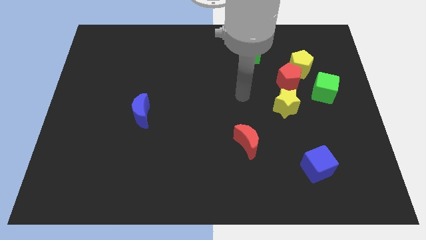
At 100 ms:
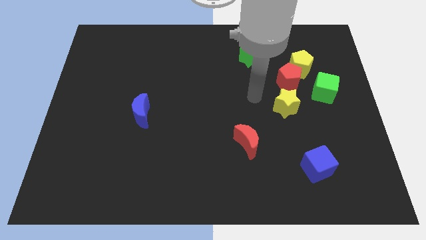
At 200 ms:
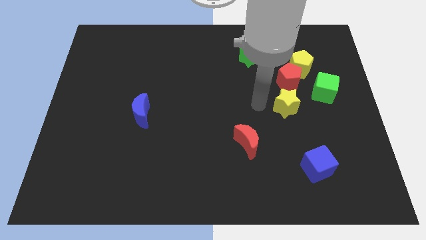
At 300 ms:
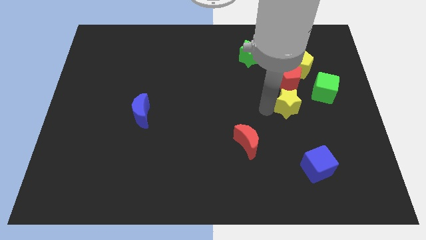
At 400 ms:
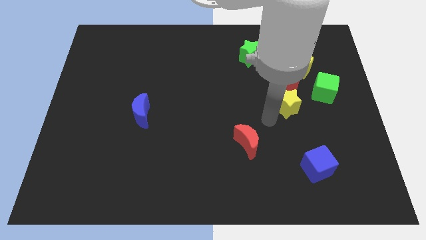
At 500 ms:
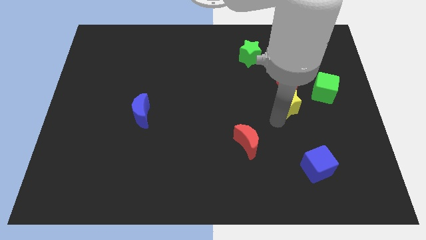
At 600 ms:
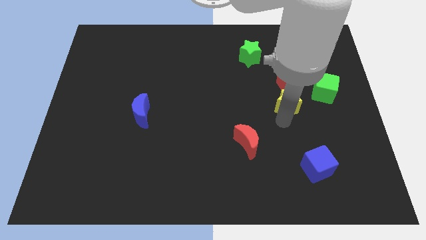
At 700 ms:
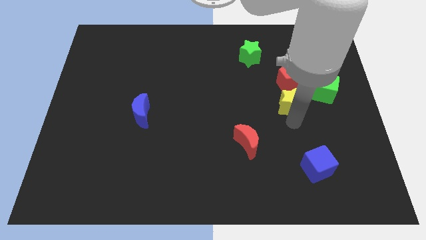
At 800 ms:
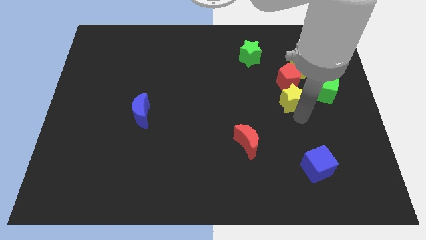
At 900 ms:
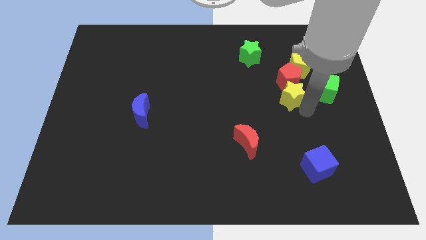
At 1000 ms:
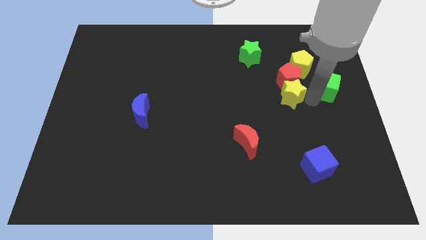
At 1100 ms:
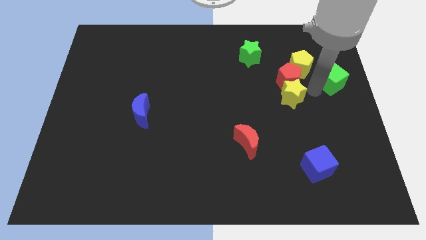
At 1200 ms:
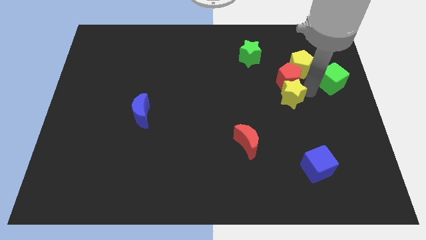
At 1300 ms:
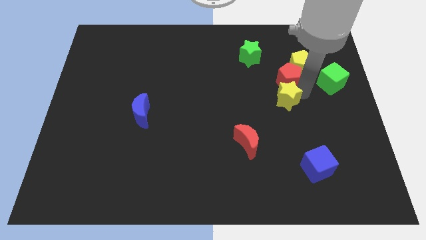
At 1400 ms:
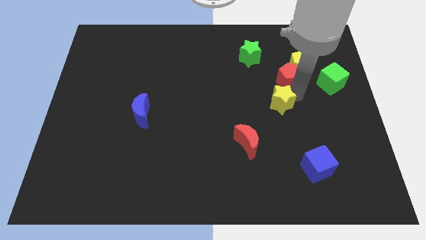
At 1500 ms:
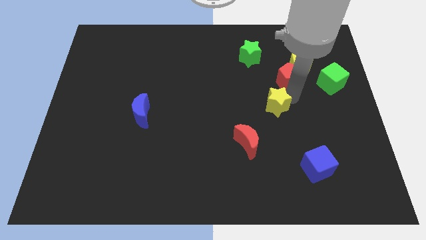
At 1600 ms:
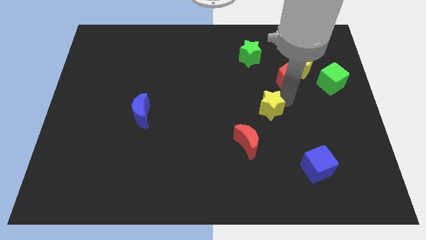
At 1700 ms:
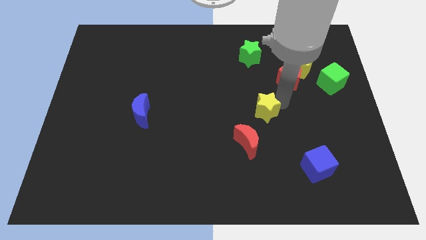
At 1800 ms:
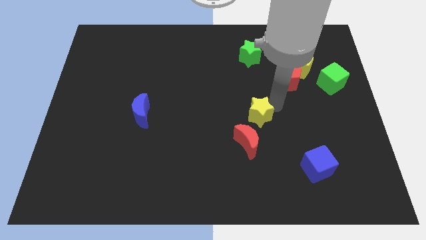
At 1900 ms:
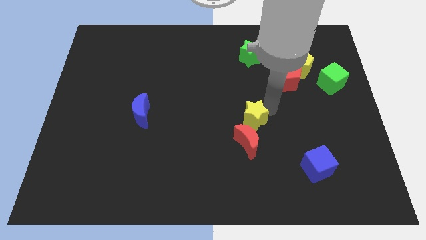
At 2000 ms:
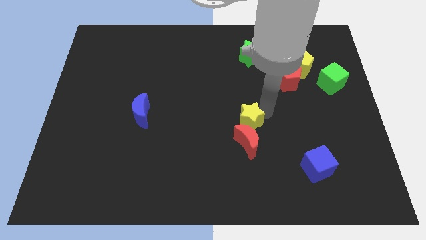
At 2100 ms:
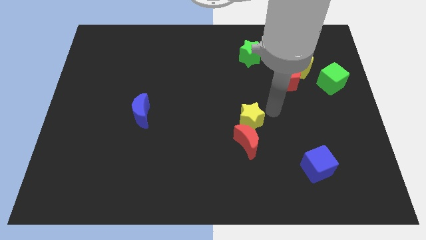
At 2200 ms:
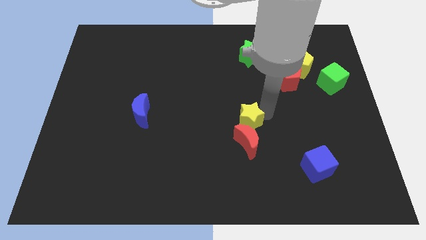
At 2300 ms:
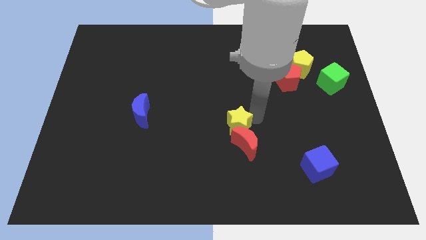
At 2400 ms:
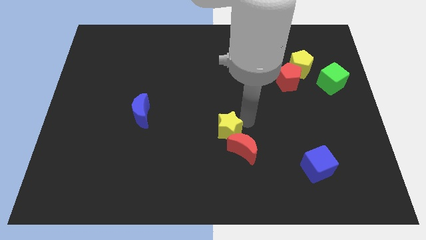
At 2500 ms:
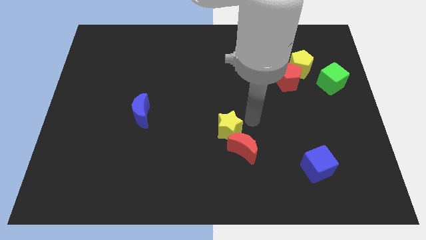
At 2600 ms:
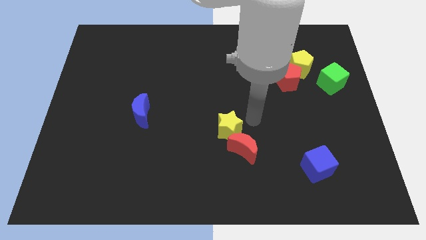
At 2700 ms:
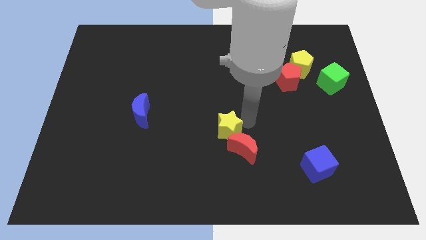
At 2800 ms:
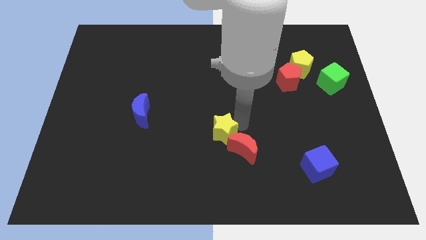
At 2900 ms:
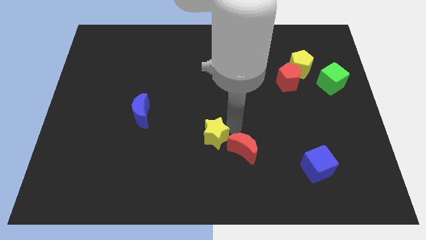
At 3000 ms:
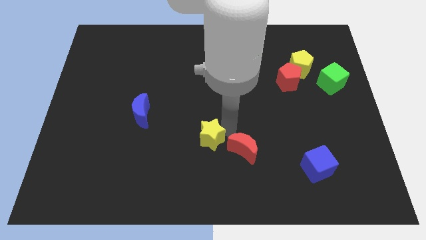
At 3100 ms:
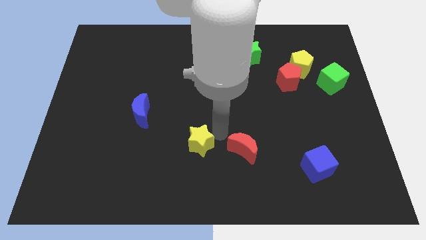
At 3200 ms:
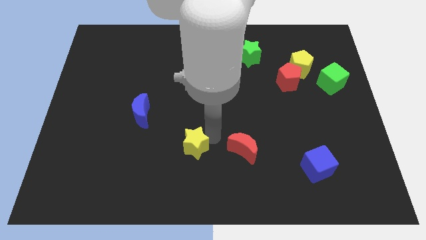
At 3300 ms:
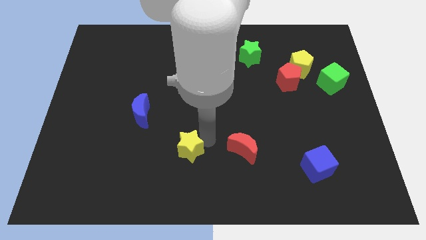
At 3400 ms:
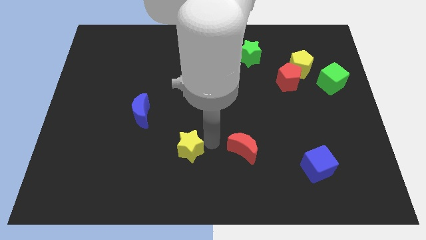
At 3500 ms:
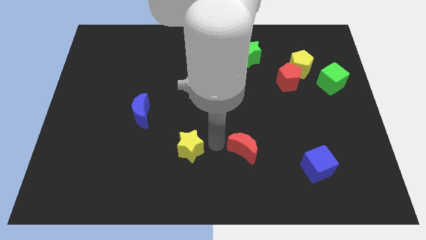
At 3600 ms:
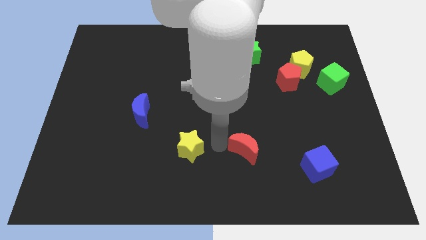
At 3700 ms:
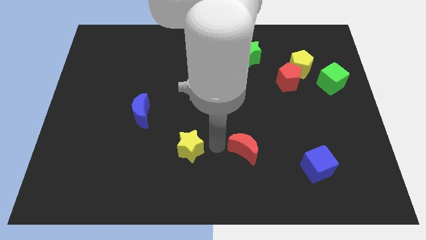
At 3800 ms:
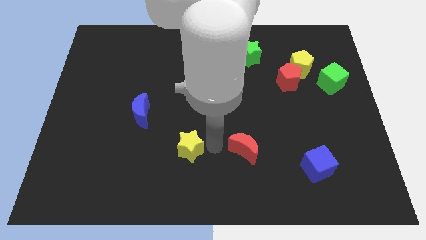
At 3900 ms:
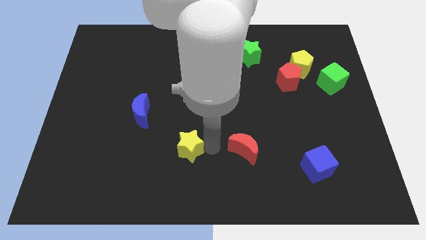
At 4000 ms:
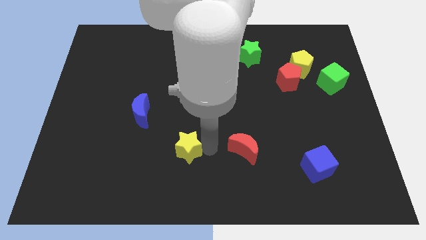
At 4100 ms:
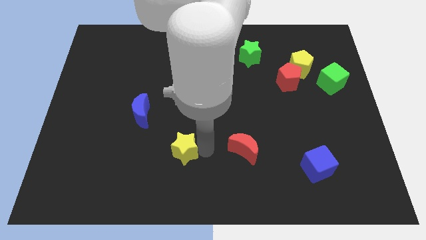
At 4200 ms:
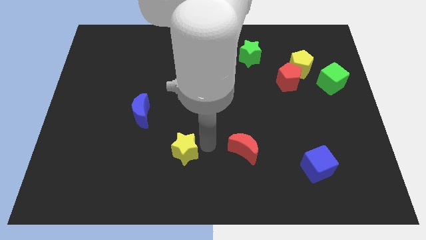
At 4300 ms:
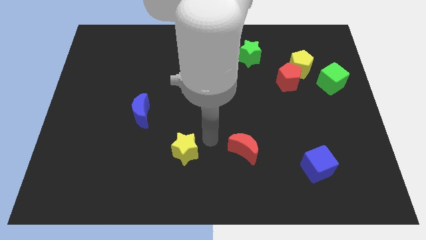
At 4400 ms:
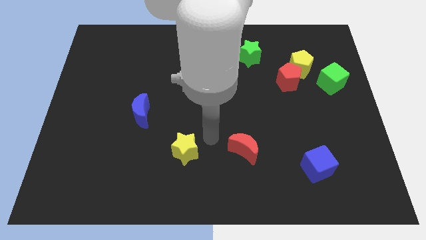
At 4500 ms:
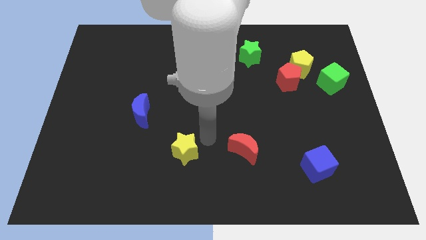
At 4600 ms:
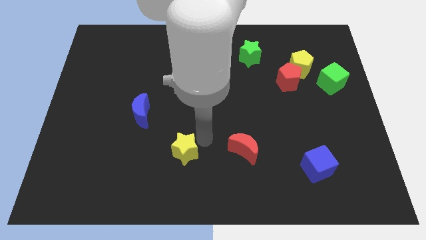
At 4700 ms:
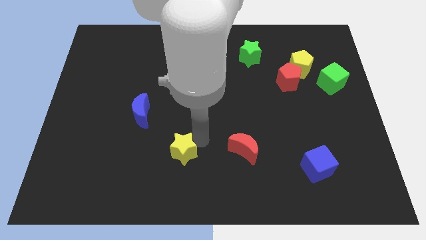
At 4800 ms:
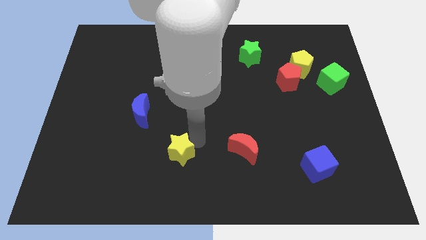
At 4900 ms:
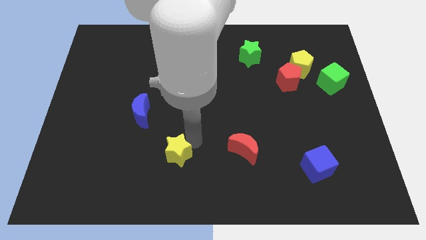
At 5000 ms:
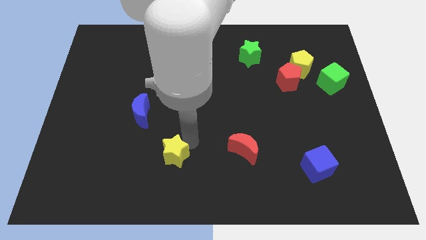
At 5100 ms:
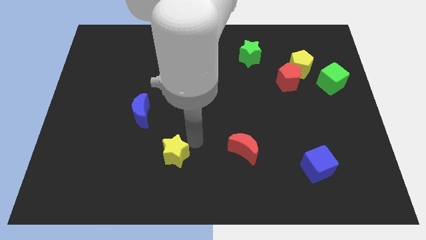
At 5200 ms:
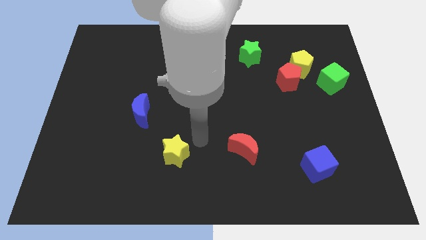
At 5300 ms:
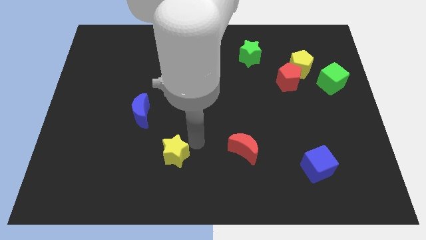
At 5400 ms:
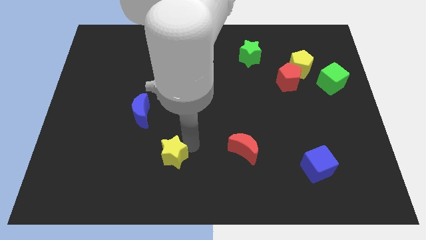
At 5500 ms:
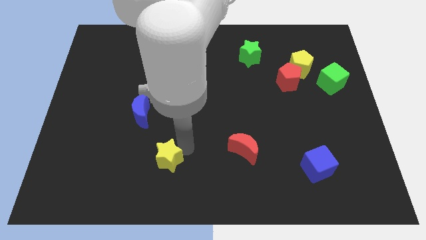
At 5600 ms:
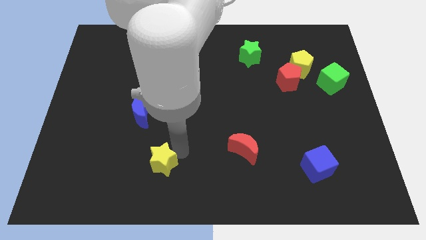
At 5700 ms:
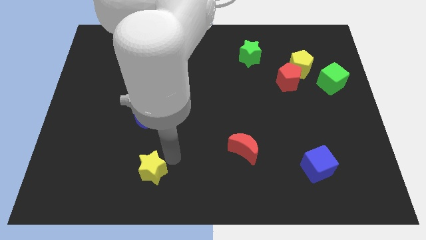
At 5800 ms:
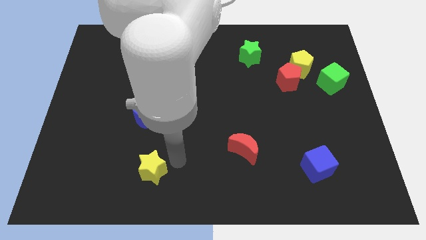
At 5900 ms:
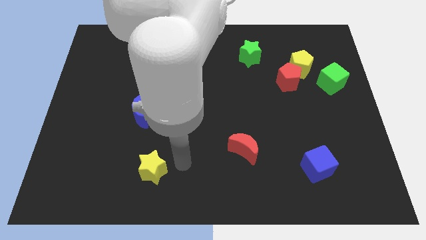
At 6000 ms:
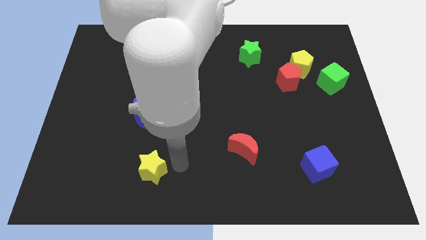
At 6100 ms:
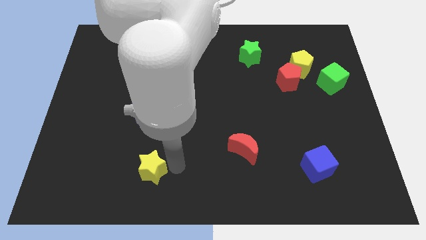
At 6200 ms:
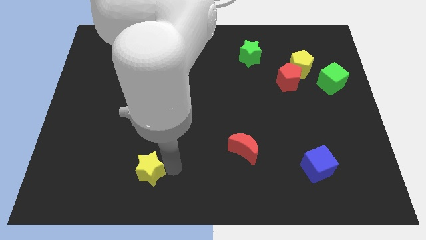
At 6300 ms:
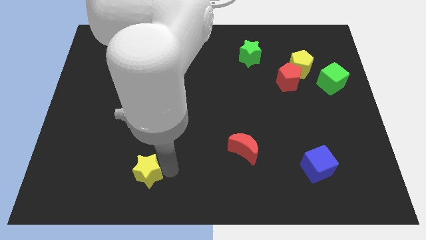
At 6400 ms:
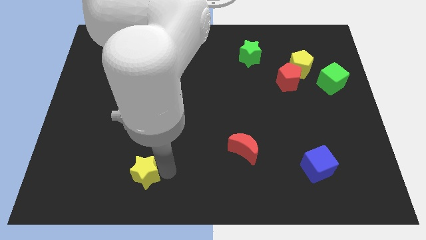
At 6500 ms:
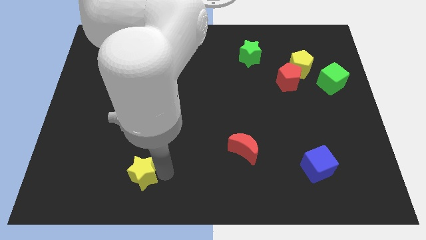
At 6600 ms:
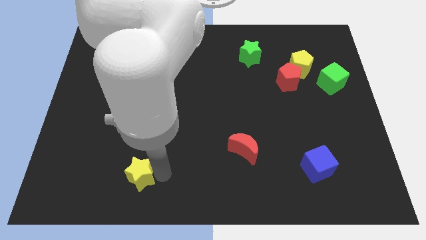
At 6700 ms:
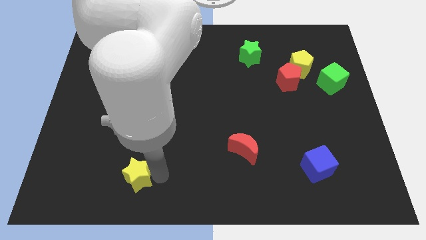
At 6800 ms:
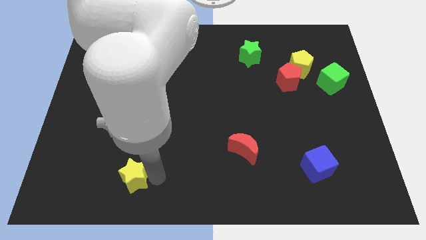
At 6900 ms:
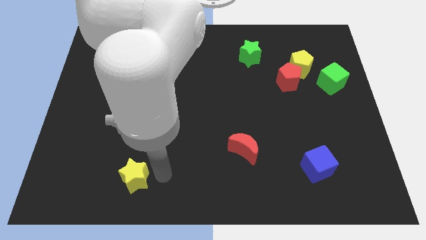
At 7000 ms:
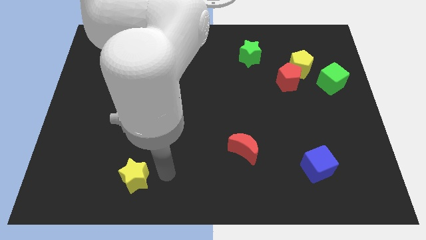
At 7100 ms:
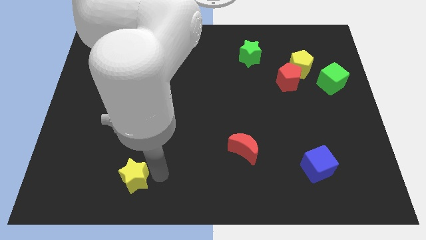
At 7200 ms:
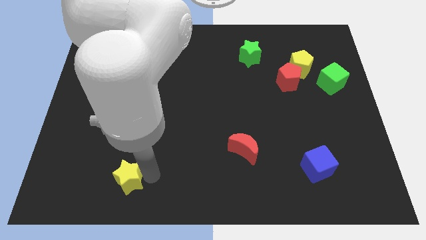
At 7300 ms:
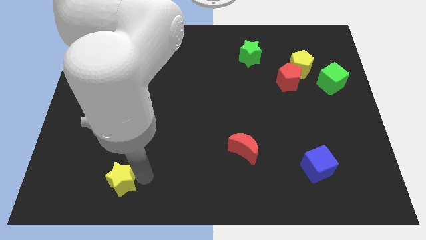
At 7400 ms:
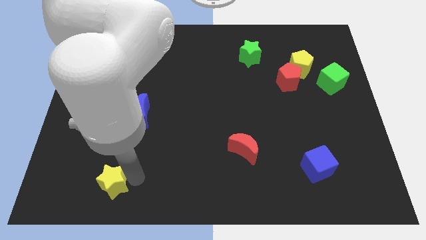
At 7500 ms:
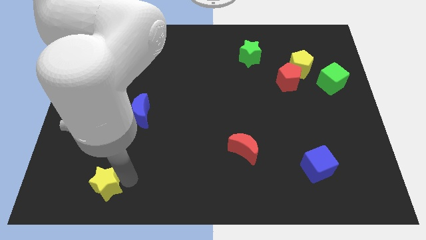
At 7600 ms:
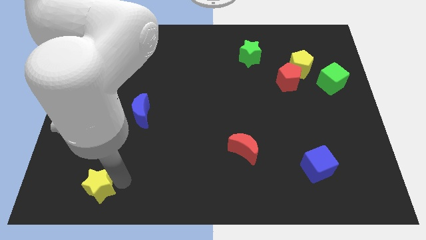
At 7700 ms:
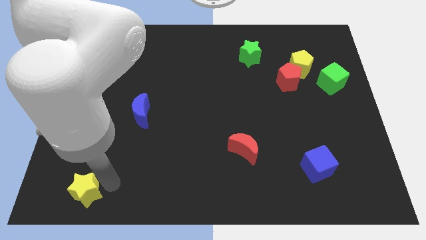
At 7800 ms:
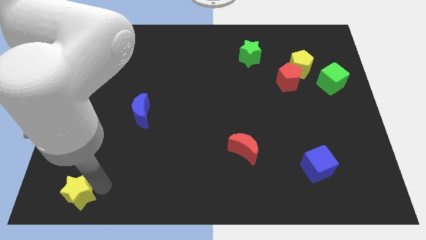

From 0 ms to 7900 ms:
move the yellow star to the lower left corner
